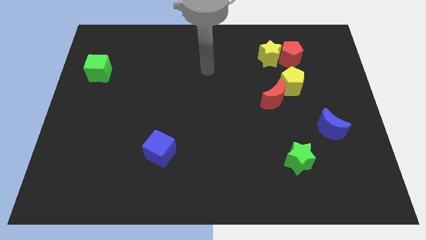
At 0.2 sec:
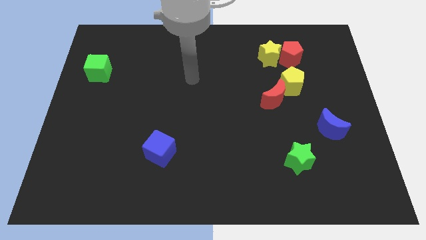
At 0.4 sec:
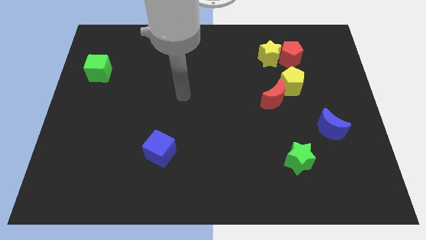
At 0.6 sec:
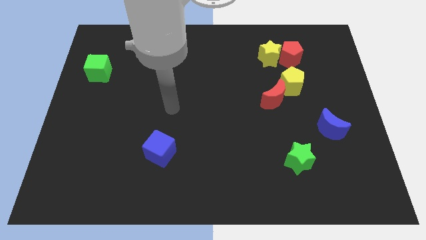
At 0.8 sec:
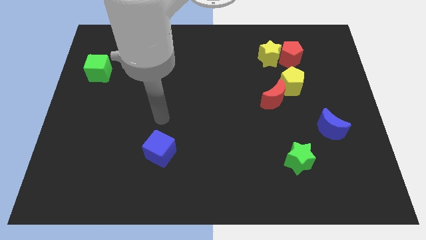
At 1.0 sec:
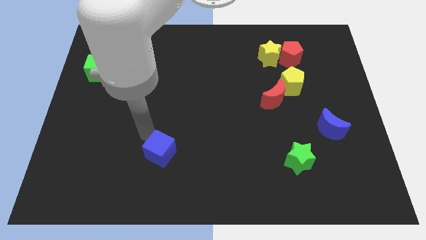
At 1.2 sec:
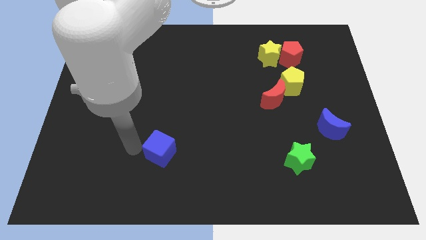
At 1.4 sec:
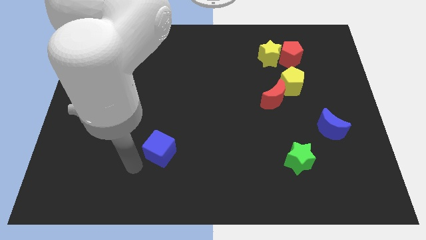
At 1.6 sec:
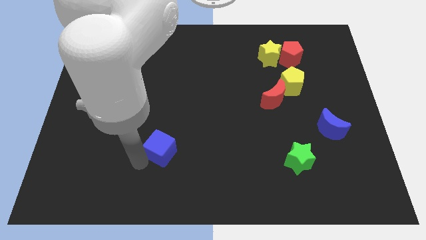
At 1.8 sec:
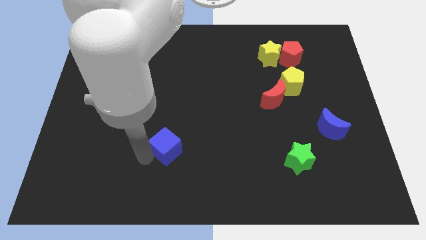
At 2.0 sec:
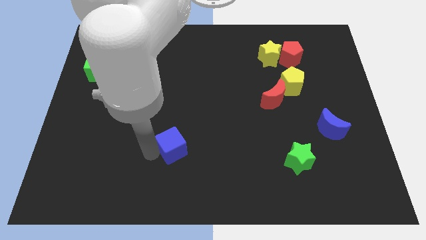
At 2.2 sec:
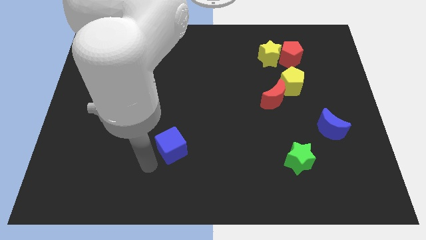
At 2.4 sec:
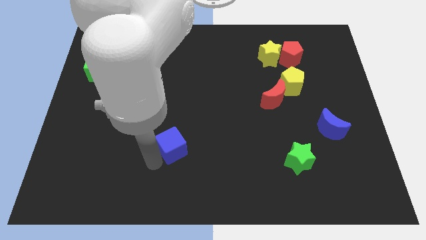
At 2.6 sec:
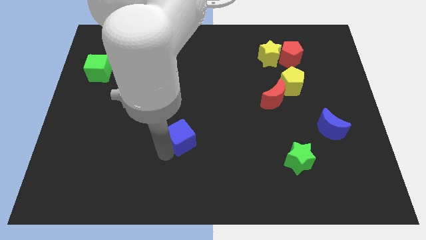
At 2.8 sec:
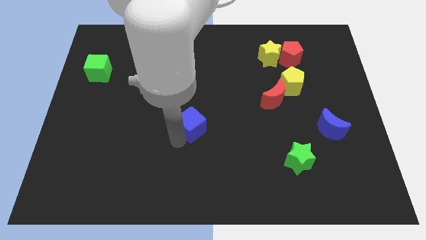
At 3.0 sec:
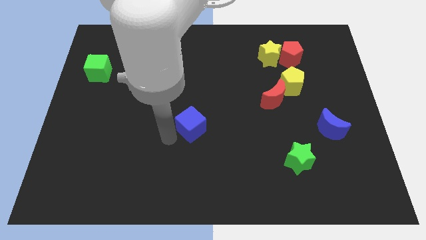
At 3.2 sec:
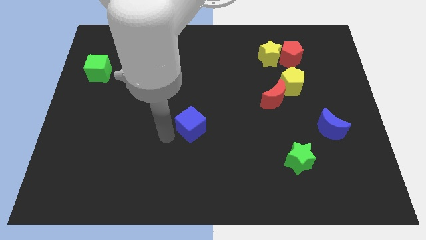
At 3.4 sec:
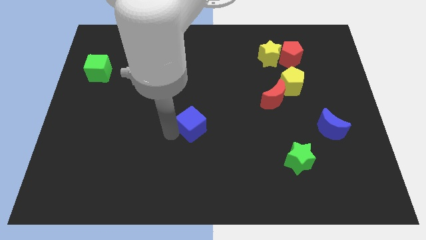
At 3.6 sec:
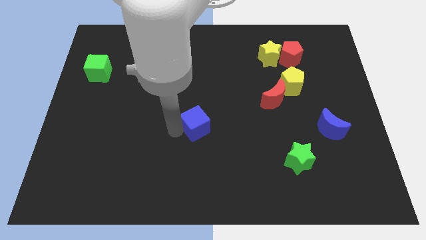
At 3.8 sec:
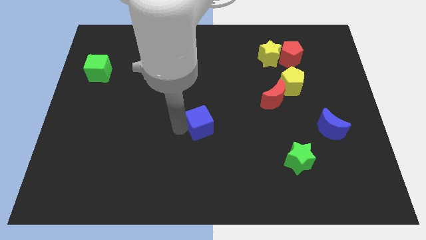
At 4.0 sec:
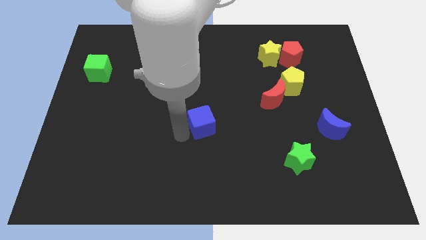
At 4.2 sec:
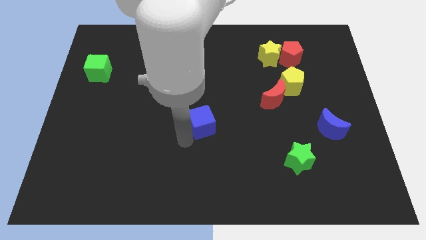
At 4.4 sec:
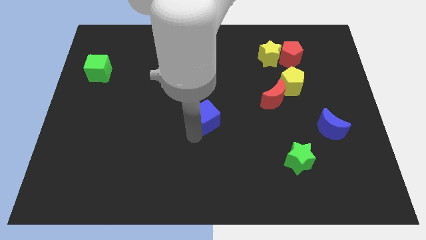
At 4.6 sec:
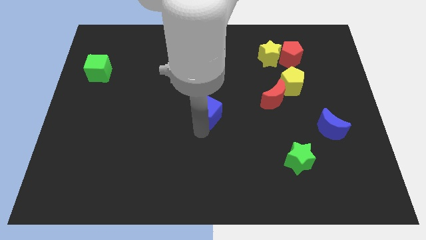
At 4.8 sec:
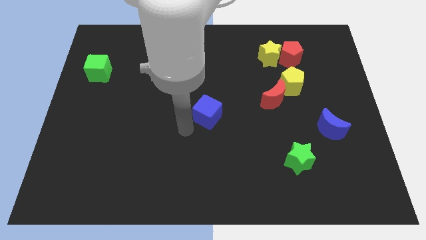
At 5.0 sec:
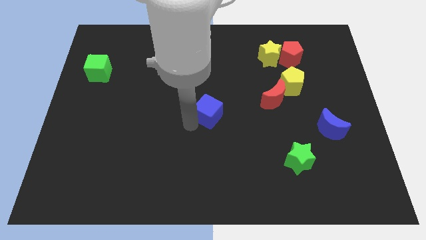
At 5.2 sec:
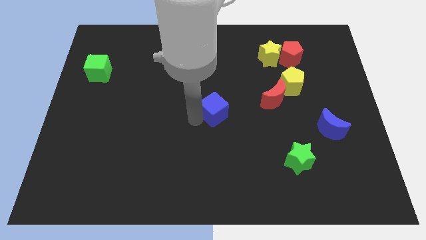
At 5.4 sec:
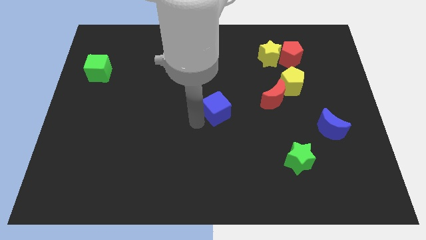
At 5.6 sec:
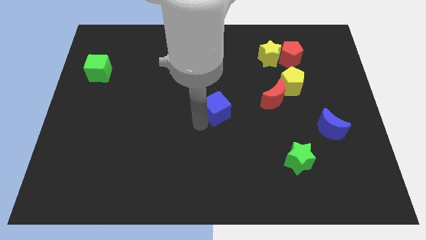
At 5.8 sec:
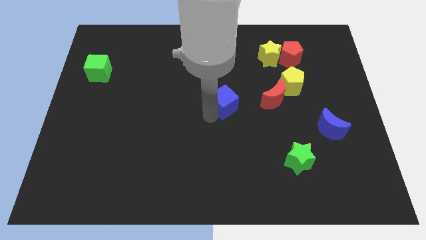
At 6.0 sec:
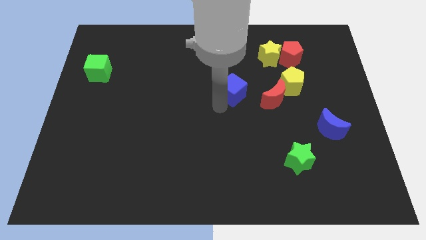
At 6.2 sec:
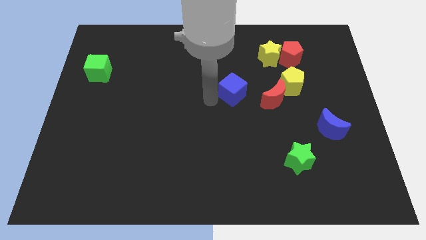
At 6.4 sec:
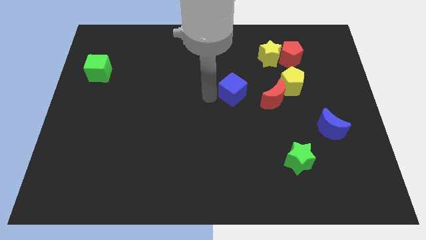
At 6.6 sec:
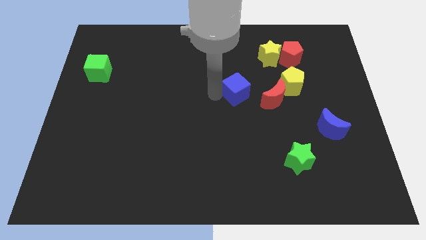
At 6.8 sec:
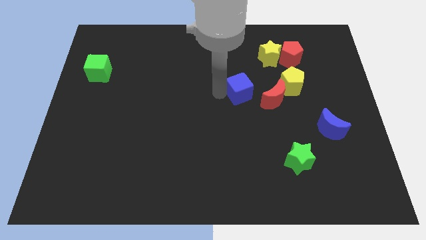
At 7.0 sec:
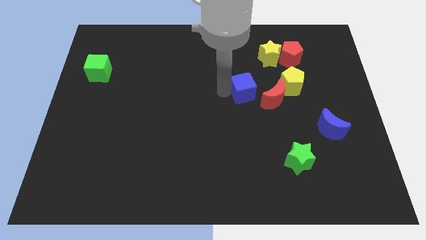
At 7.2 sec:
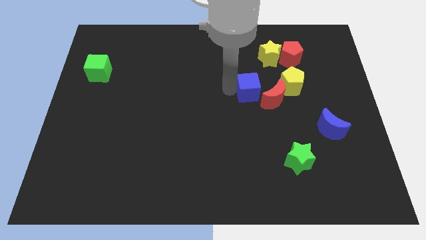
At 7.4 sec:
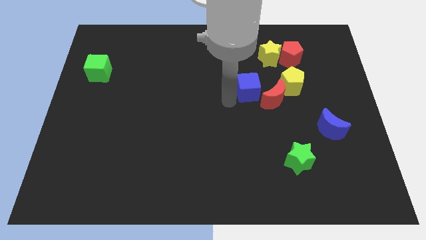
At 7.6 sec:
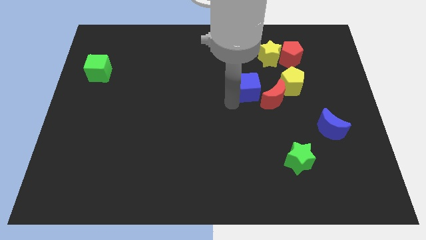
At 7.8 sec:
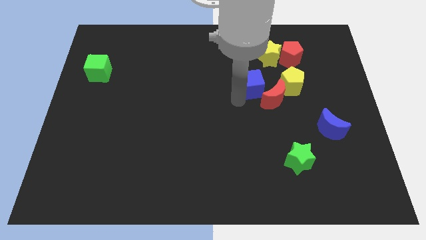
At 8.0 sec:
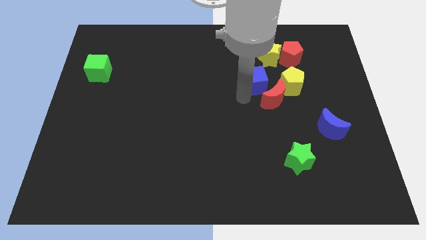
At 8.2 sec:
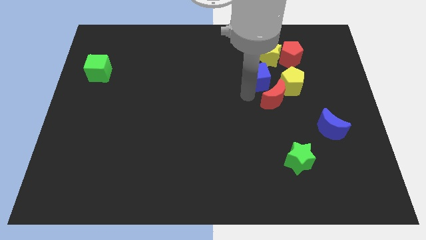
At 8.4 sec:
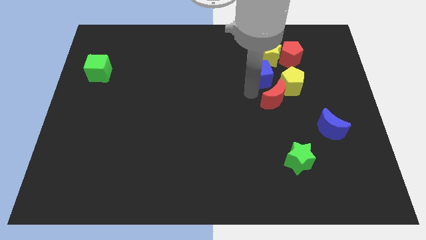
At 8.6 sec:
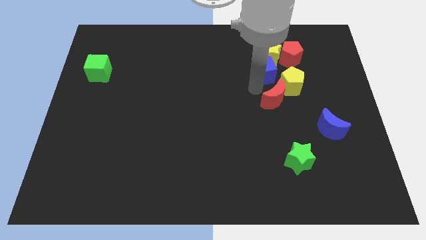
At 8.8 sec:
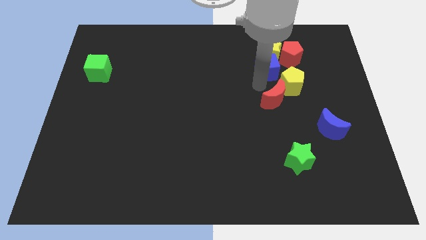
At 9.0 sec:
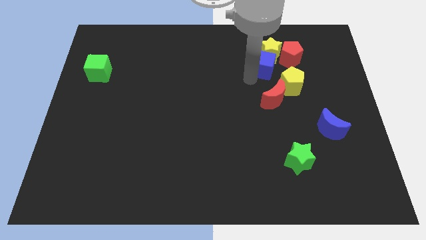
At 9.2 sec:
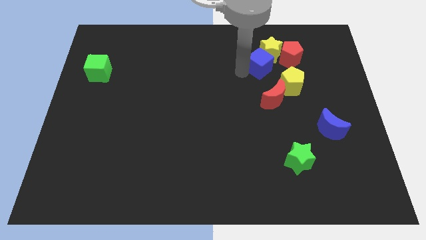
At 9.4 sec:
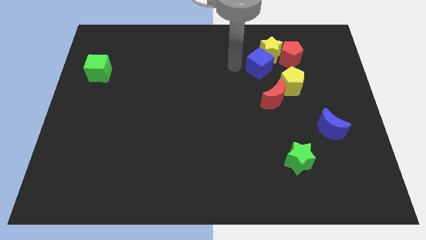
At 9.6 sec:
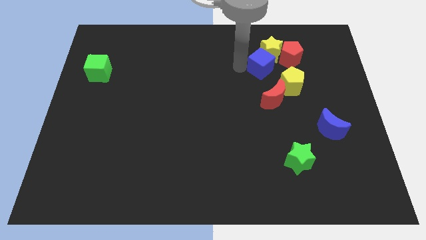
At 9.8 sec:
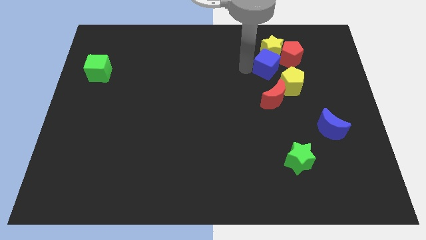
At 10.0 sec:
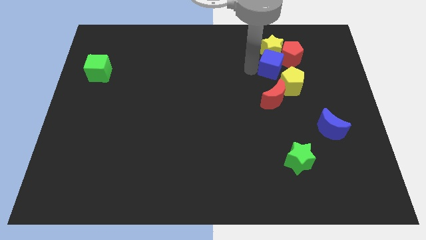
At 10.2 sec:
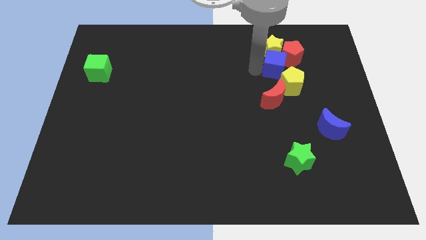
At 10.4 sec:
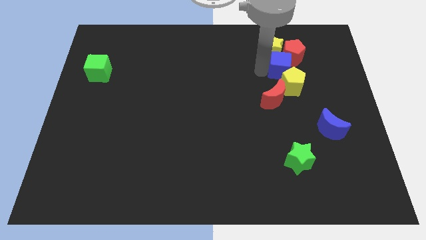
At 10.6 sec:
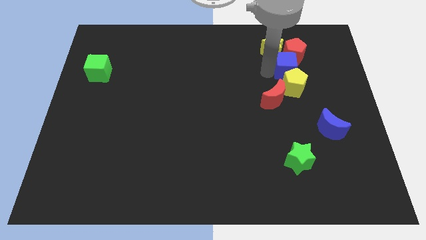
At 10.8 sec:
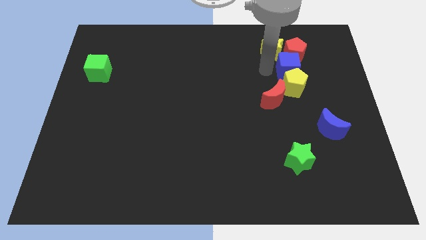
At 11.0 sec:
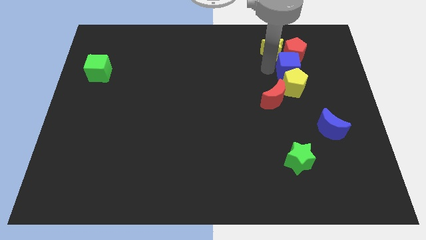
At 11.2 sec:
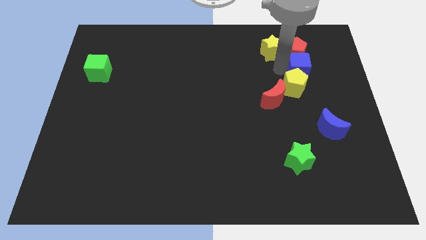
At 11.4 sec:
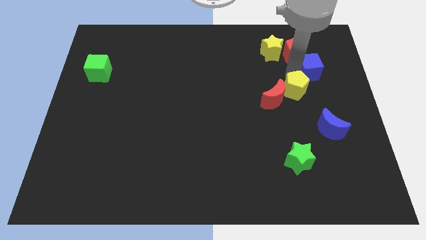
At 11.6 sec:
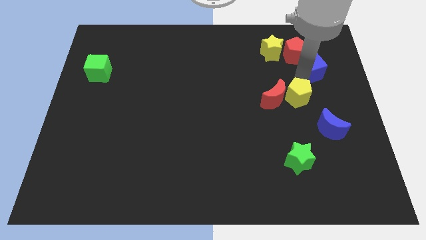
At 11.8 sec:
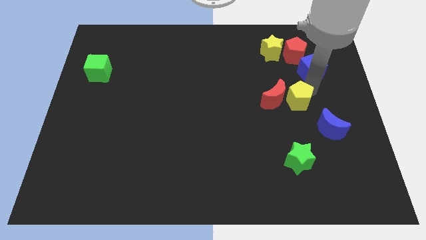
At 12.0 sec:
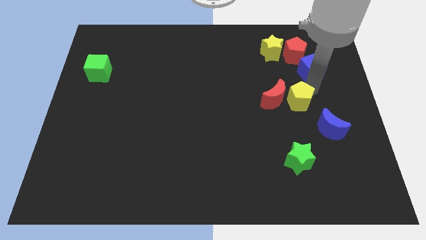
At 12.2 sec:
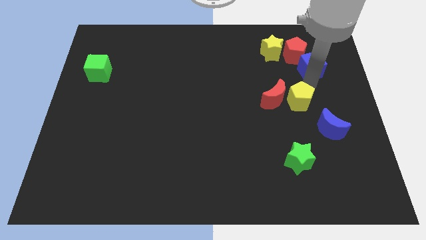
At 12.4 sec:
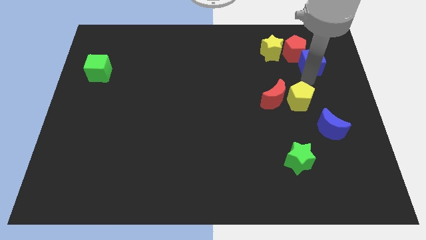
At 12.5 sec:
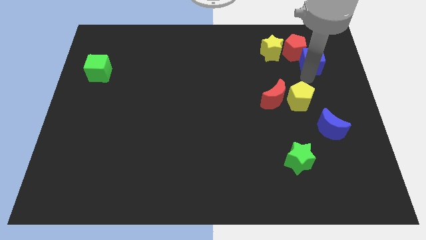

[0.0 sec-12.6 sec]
put the blue cube to the right of the yellow star

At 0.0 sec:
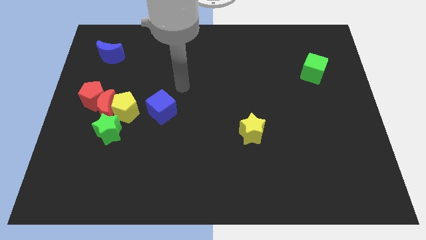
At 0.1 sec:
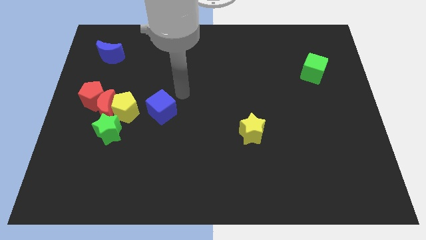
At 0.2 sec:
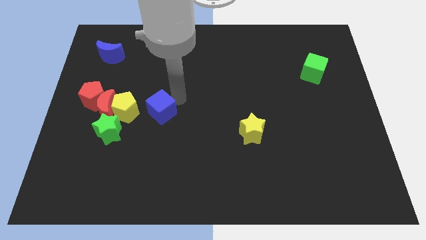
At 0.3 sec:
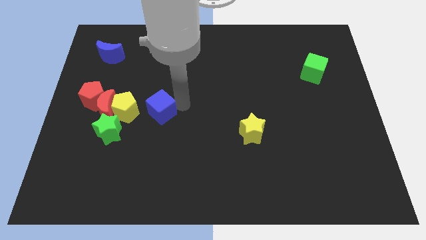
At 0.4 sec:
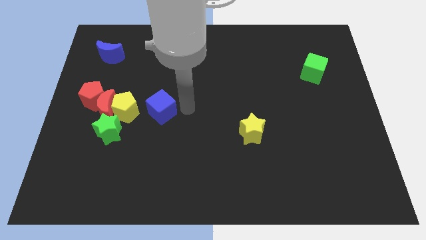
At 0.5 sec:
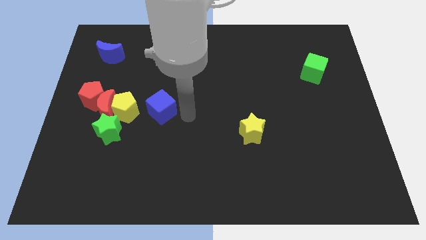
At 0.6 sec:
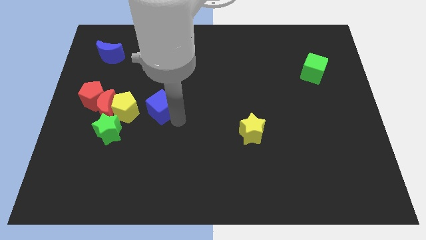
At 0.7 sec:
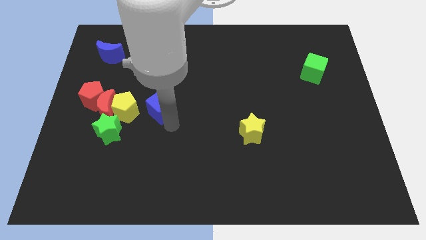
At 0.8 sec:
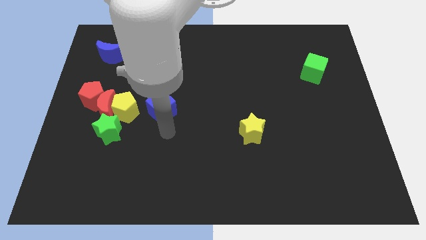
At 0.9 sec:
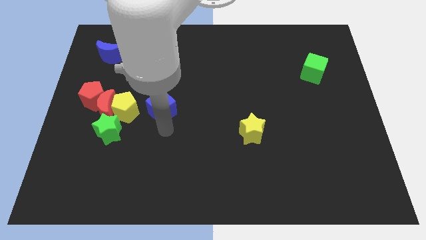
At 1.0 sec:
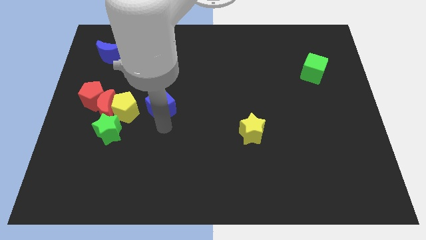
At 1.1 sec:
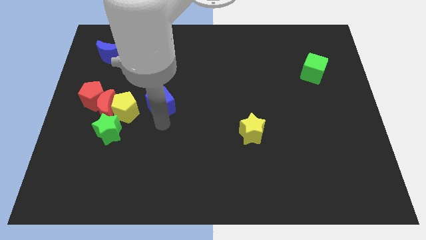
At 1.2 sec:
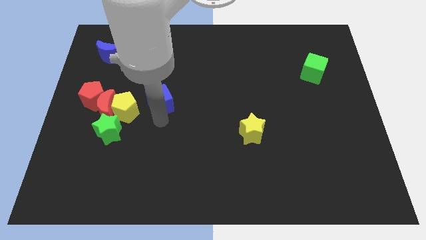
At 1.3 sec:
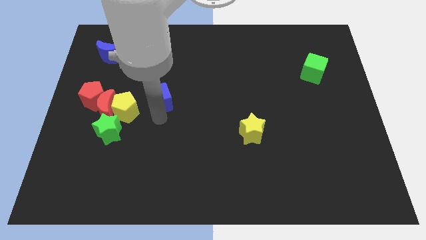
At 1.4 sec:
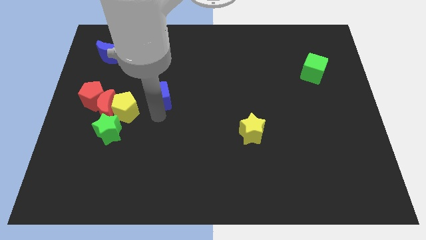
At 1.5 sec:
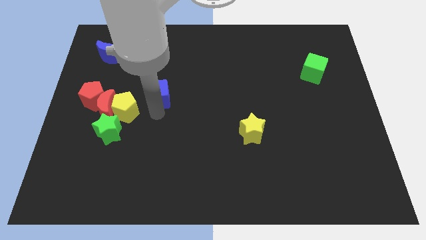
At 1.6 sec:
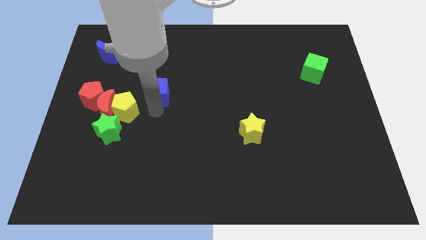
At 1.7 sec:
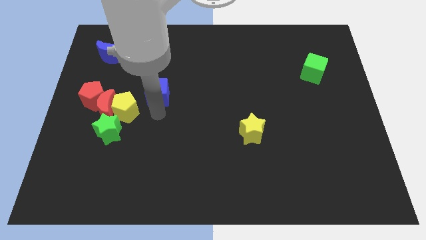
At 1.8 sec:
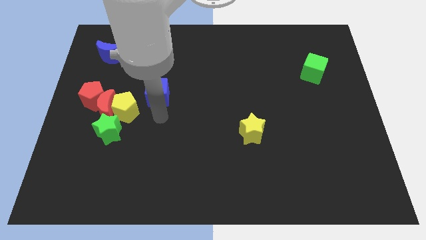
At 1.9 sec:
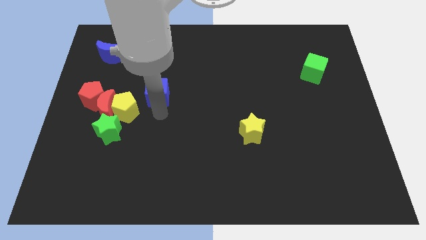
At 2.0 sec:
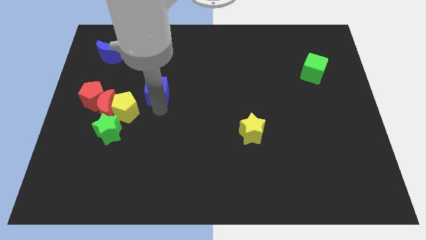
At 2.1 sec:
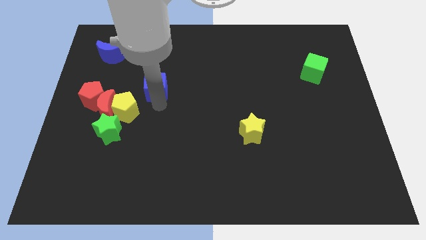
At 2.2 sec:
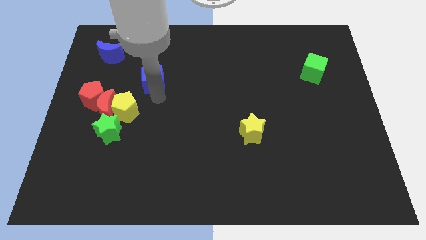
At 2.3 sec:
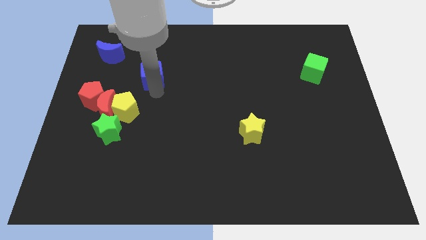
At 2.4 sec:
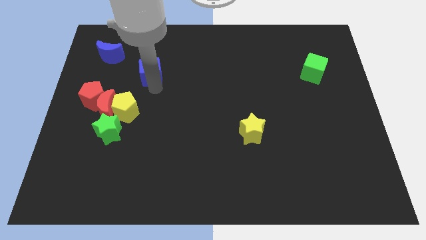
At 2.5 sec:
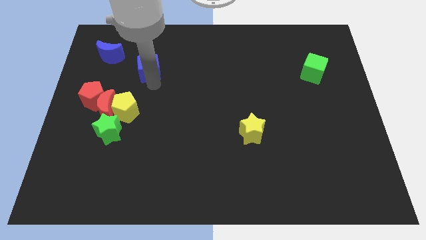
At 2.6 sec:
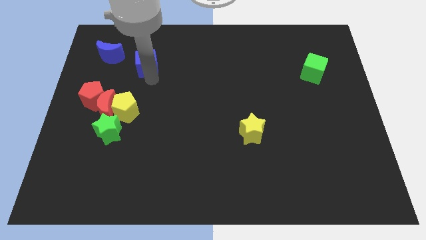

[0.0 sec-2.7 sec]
push the blue cube to the right of the blue moon
